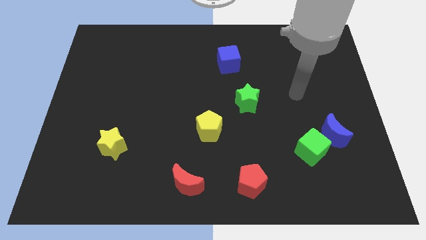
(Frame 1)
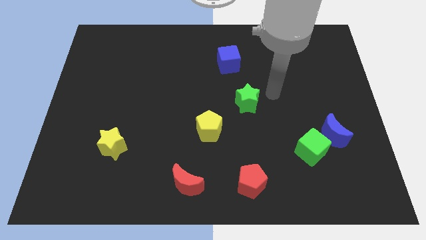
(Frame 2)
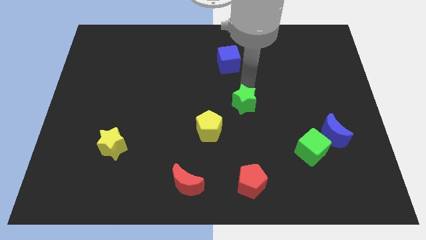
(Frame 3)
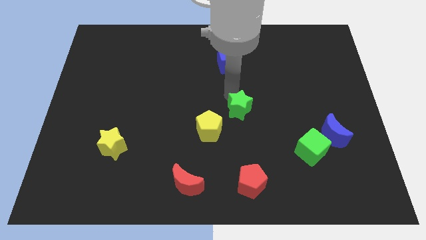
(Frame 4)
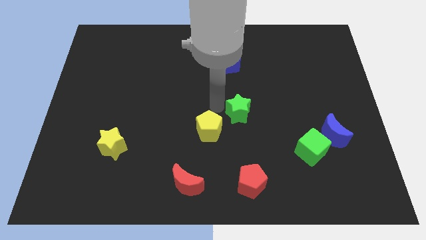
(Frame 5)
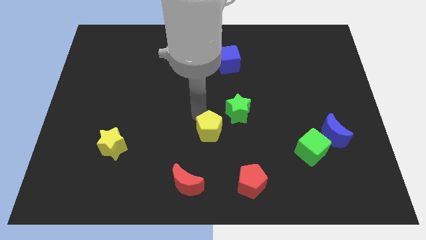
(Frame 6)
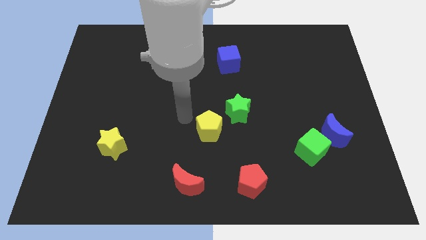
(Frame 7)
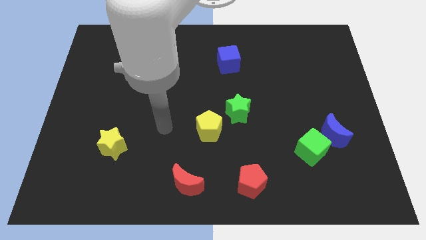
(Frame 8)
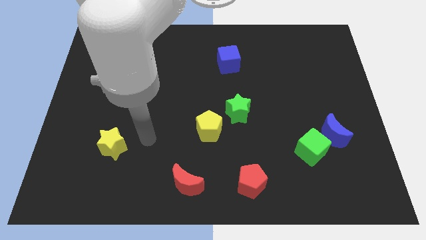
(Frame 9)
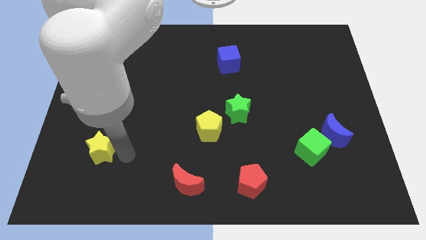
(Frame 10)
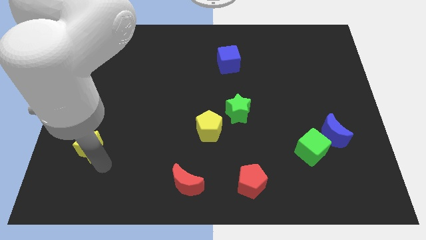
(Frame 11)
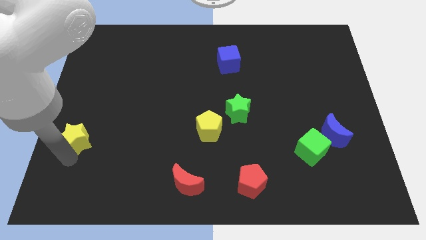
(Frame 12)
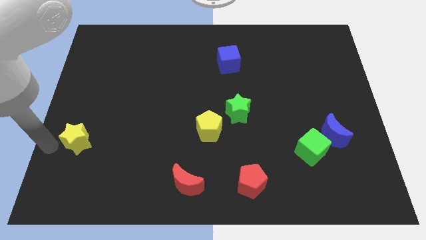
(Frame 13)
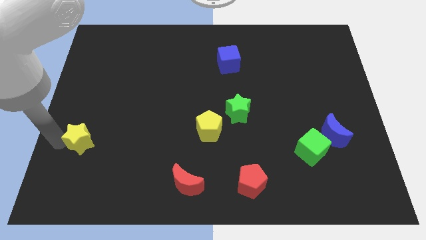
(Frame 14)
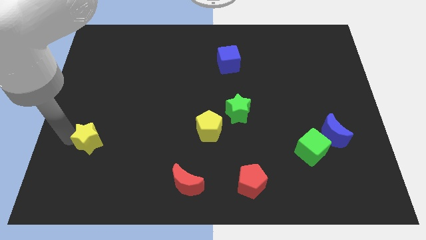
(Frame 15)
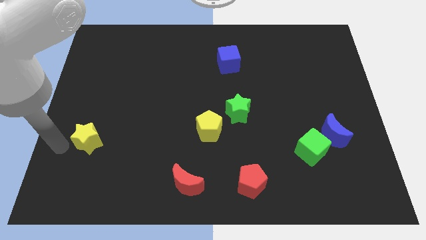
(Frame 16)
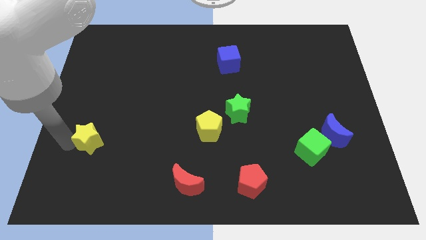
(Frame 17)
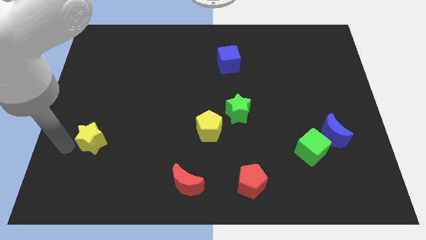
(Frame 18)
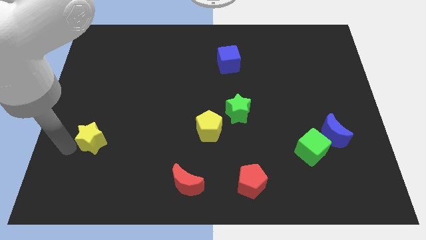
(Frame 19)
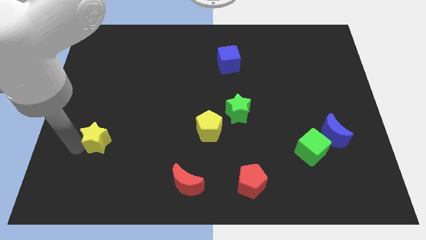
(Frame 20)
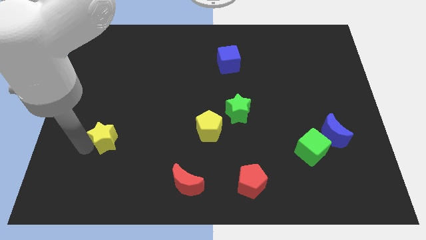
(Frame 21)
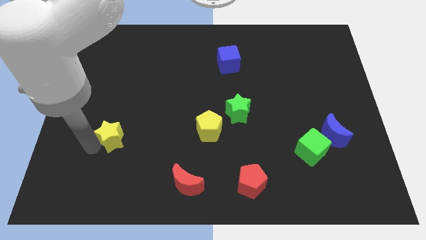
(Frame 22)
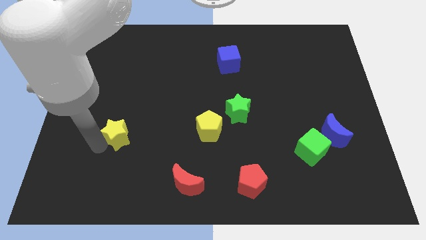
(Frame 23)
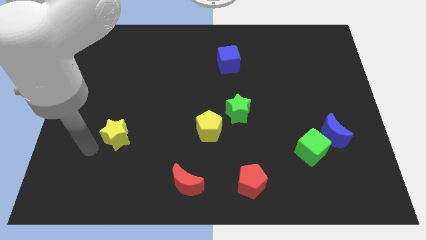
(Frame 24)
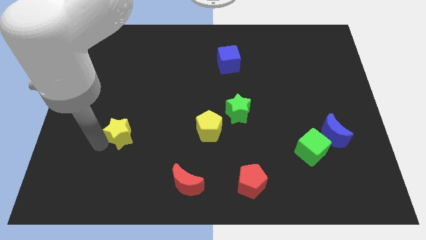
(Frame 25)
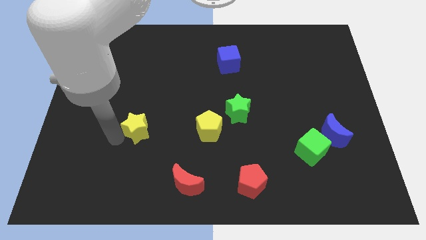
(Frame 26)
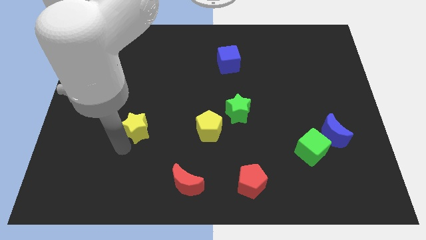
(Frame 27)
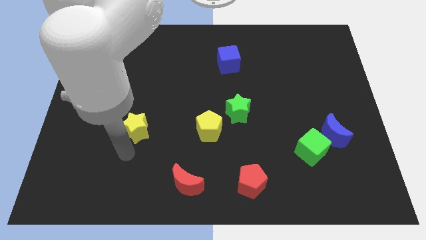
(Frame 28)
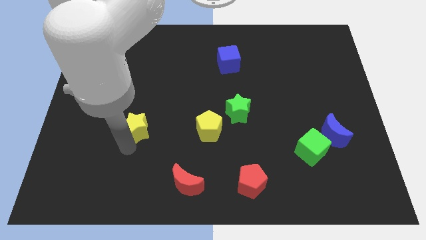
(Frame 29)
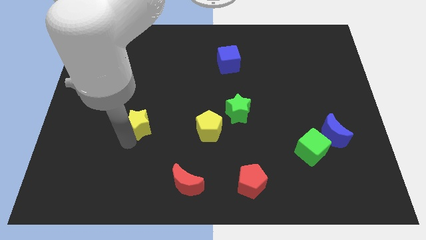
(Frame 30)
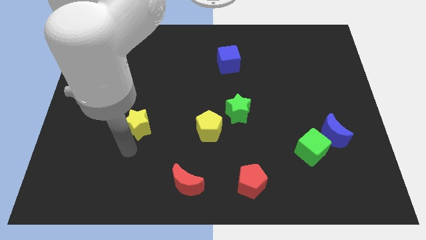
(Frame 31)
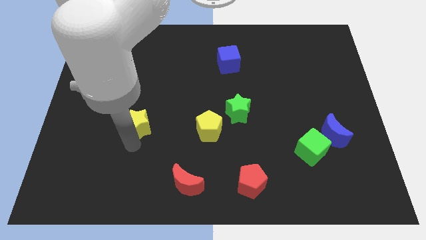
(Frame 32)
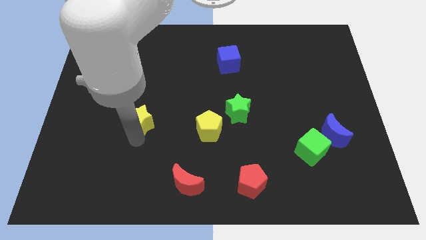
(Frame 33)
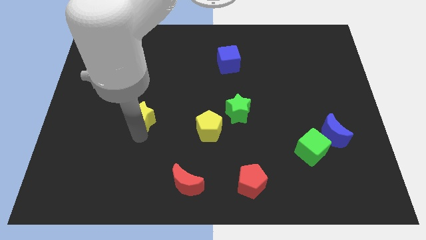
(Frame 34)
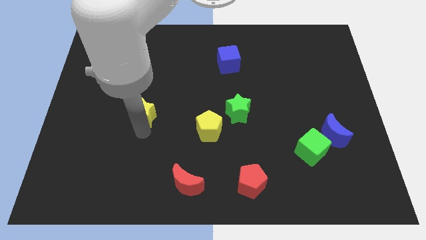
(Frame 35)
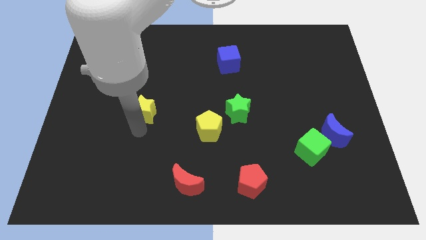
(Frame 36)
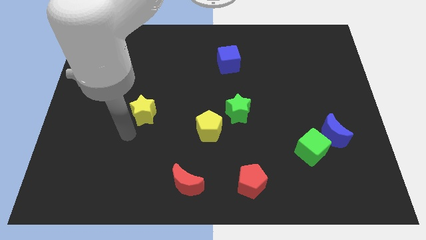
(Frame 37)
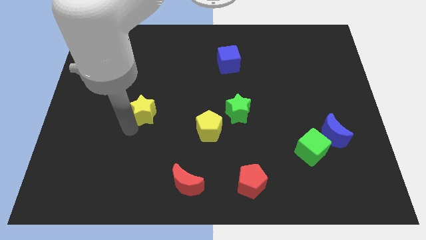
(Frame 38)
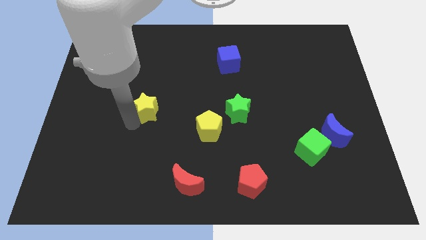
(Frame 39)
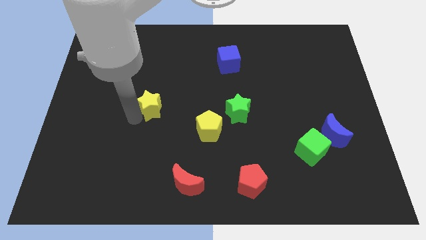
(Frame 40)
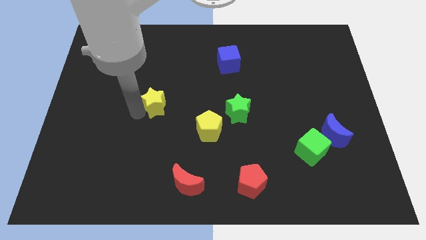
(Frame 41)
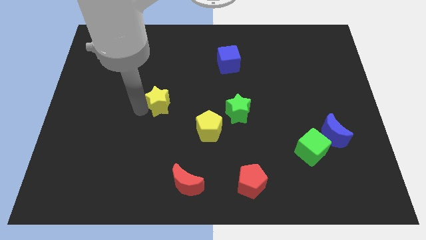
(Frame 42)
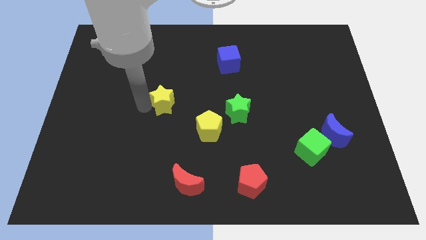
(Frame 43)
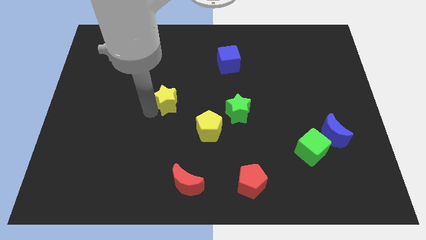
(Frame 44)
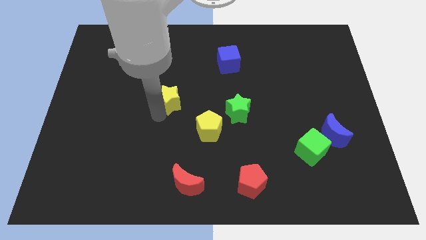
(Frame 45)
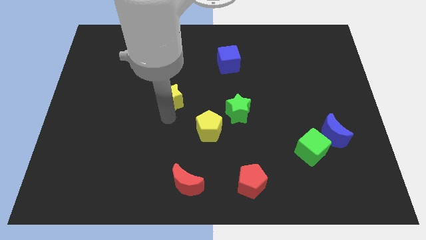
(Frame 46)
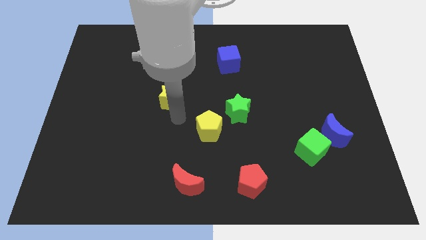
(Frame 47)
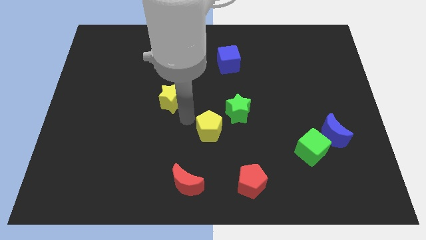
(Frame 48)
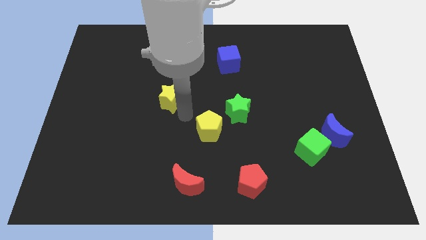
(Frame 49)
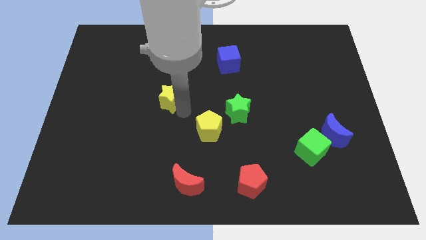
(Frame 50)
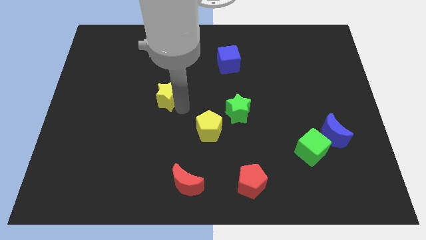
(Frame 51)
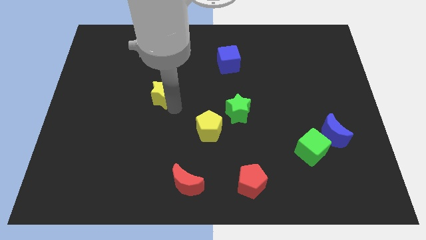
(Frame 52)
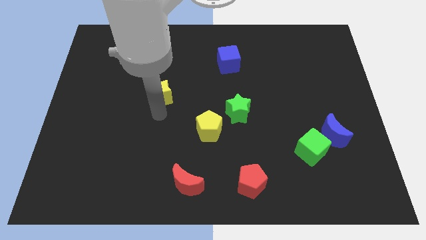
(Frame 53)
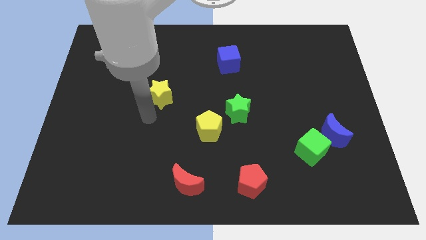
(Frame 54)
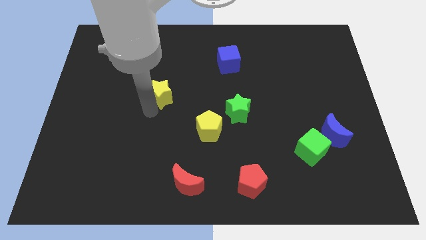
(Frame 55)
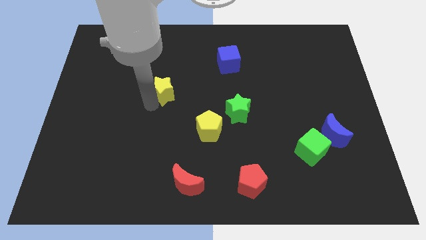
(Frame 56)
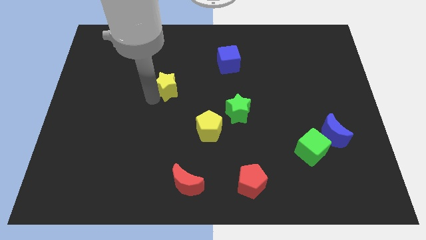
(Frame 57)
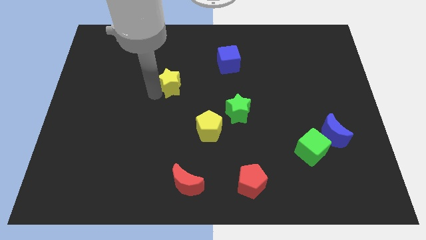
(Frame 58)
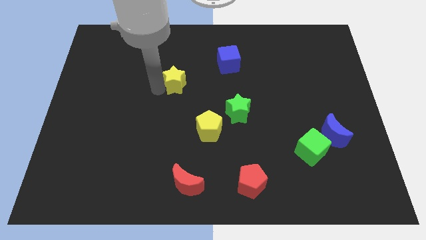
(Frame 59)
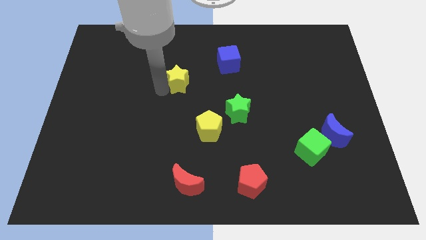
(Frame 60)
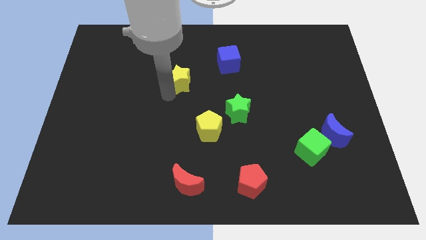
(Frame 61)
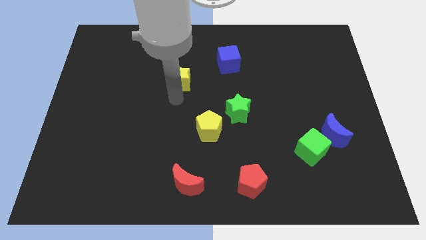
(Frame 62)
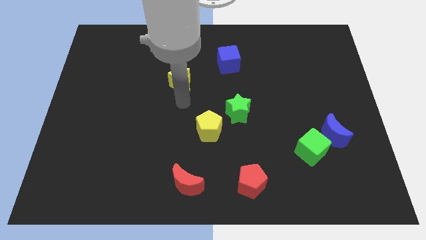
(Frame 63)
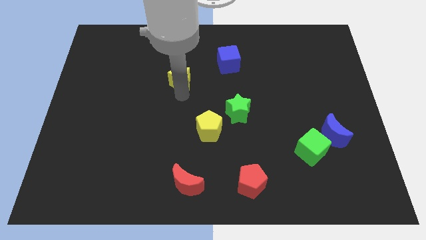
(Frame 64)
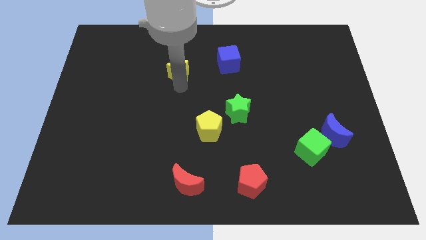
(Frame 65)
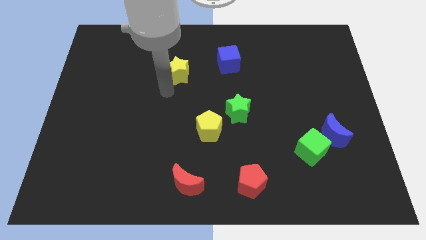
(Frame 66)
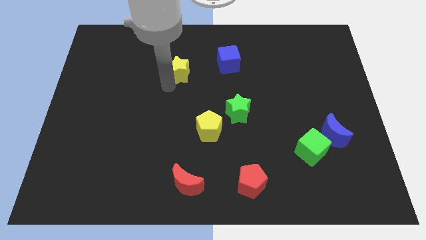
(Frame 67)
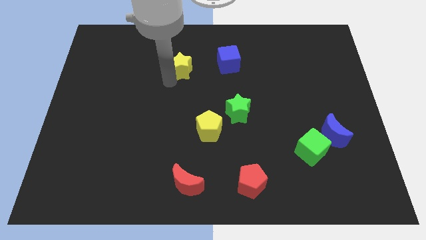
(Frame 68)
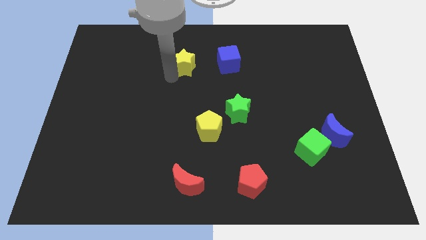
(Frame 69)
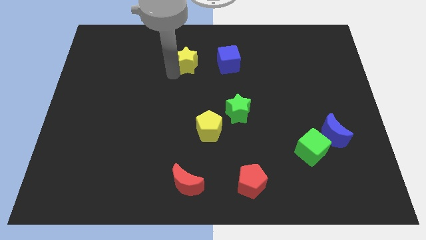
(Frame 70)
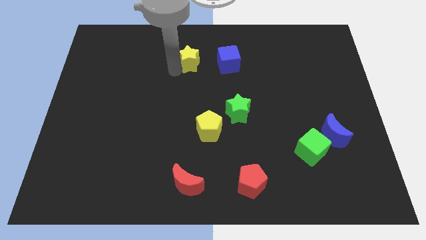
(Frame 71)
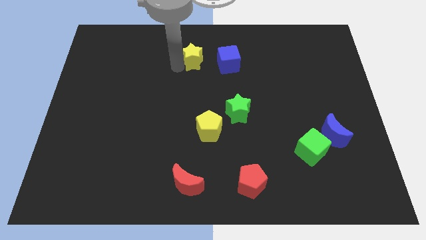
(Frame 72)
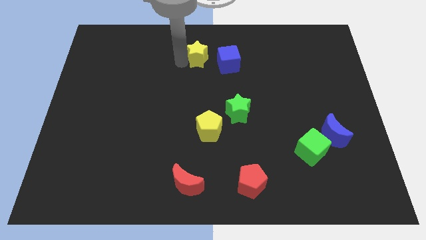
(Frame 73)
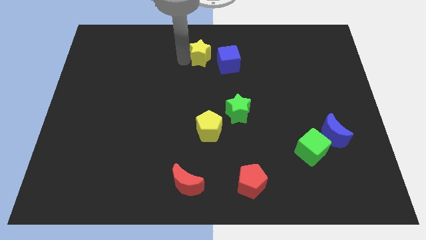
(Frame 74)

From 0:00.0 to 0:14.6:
push the yellow star to the top side
